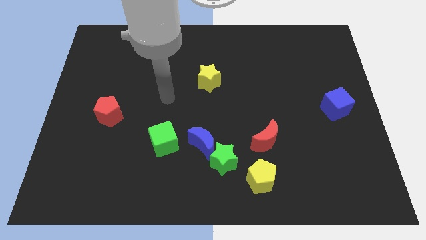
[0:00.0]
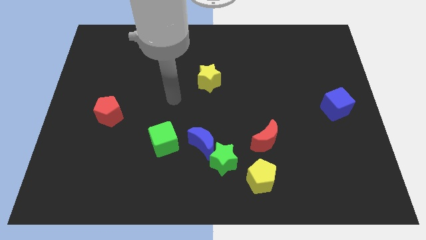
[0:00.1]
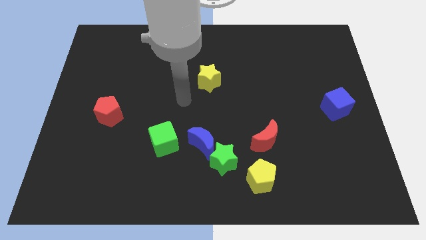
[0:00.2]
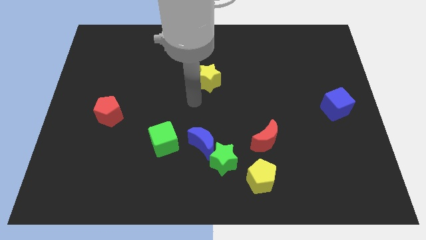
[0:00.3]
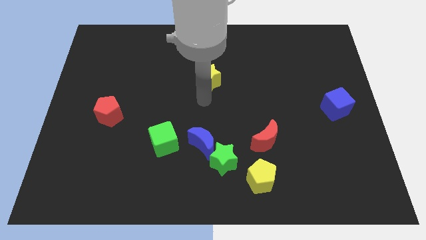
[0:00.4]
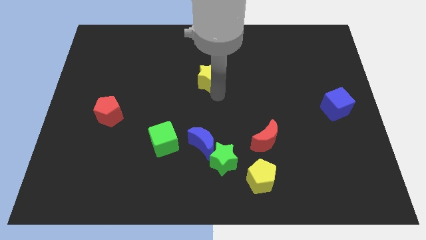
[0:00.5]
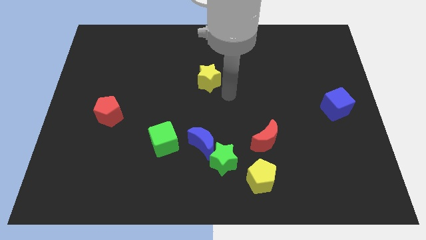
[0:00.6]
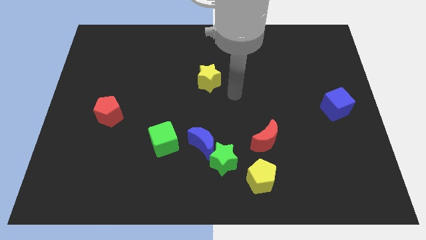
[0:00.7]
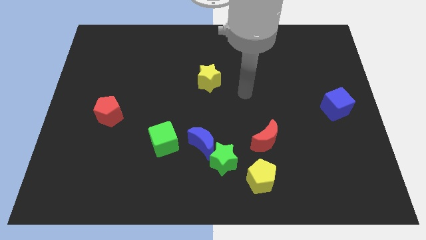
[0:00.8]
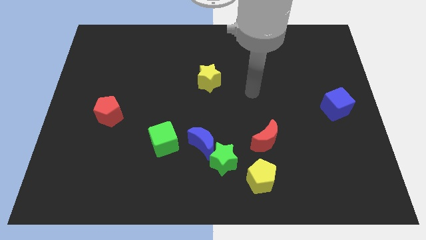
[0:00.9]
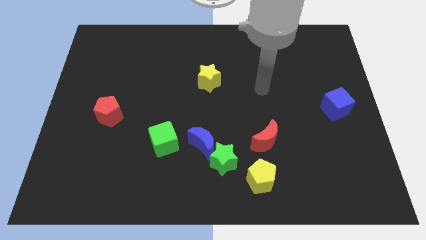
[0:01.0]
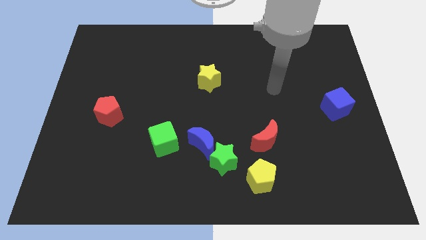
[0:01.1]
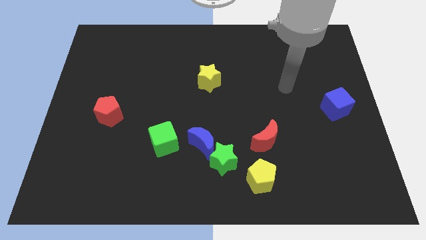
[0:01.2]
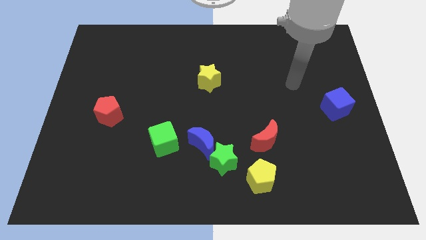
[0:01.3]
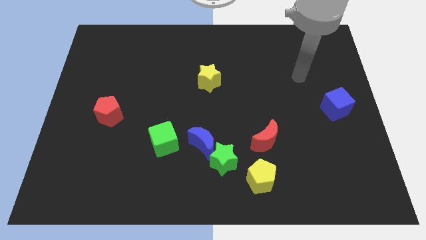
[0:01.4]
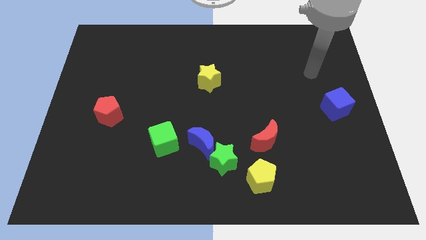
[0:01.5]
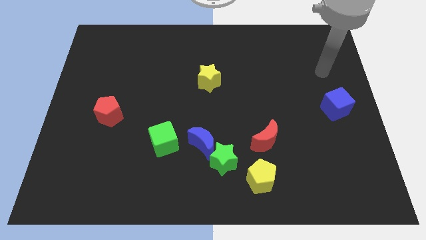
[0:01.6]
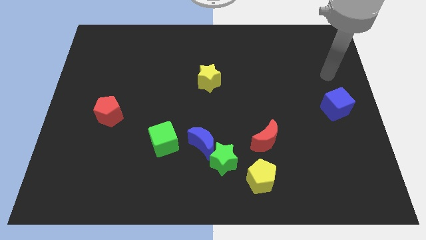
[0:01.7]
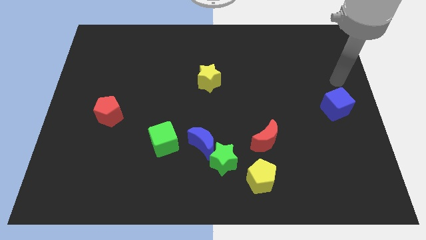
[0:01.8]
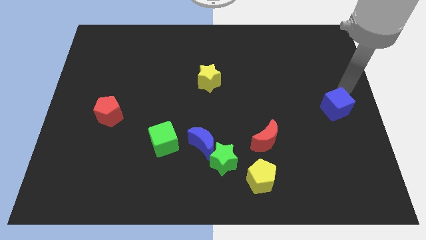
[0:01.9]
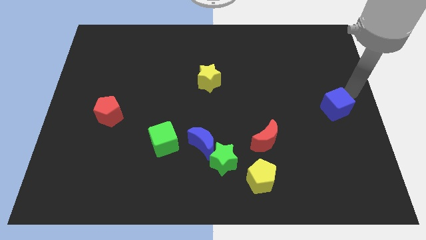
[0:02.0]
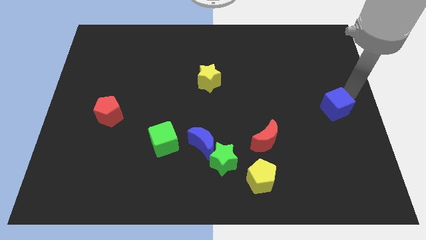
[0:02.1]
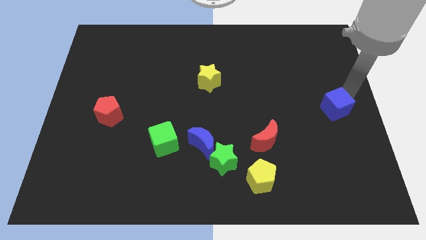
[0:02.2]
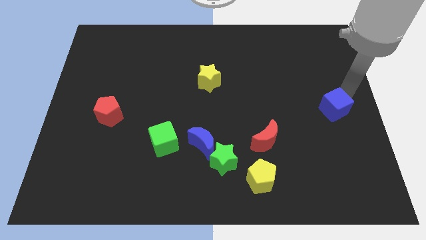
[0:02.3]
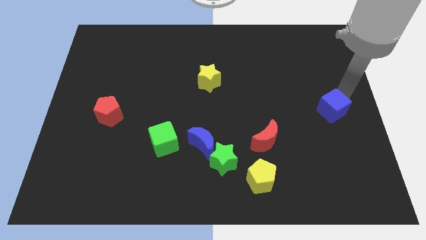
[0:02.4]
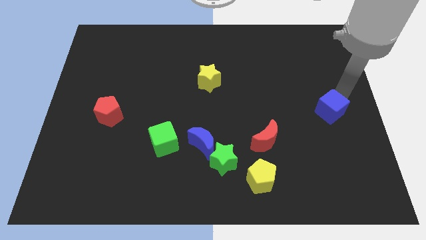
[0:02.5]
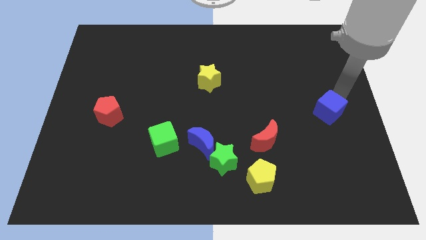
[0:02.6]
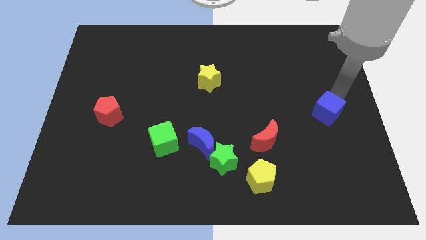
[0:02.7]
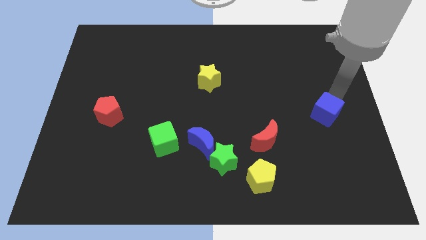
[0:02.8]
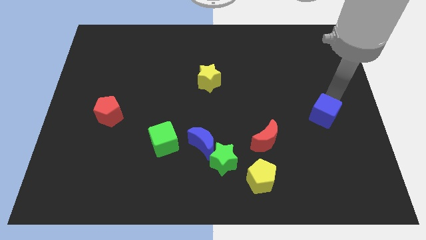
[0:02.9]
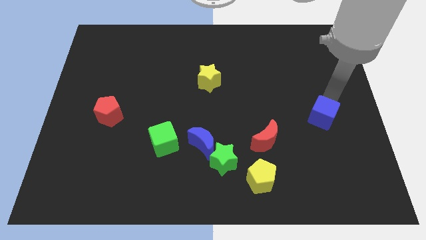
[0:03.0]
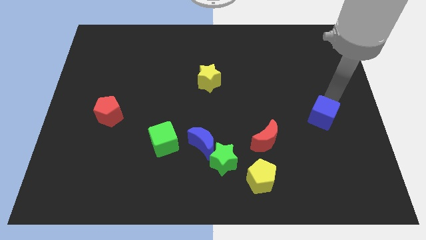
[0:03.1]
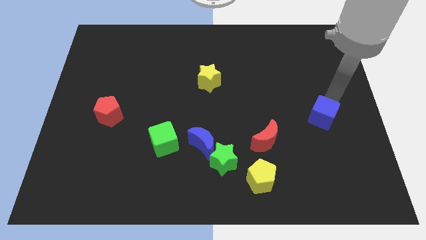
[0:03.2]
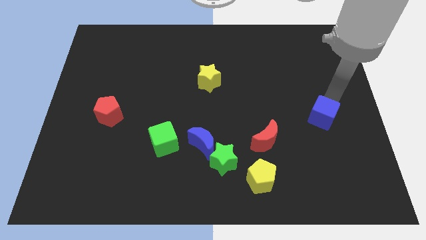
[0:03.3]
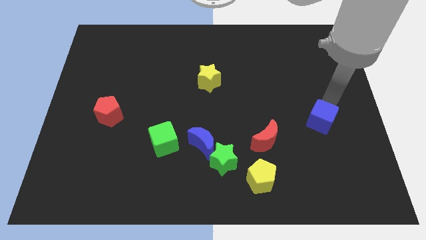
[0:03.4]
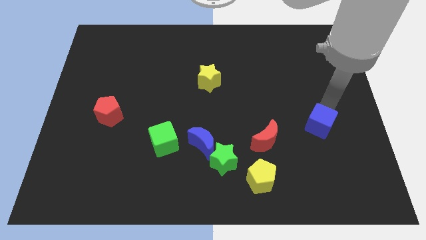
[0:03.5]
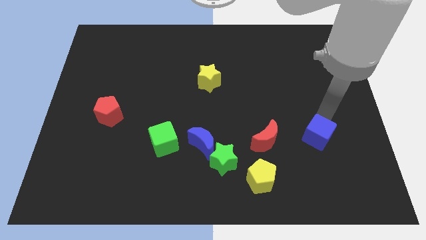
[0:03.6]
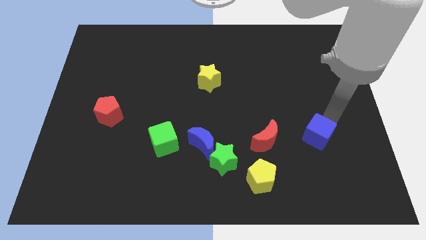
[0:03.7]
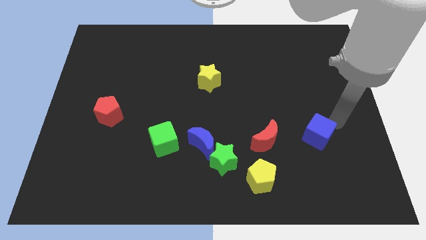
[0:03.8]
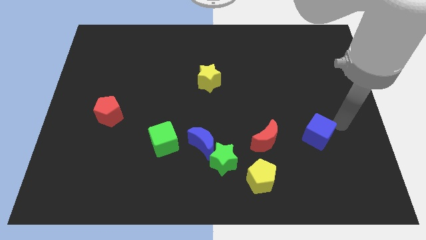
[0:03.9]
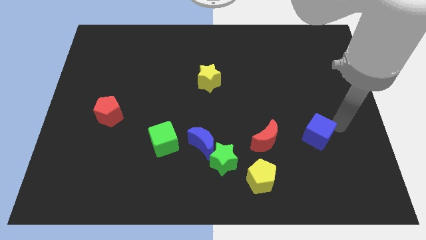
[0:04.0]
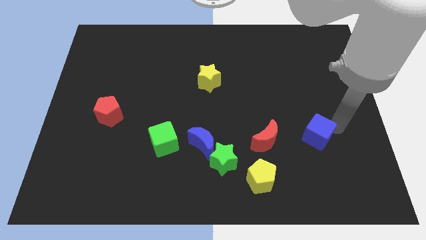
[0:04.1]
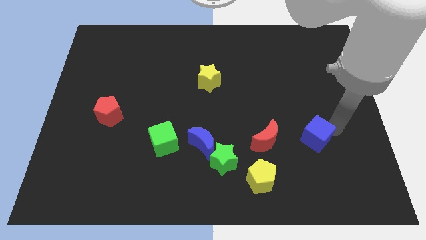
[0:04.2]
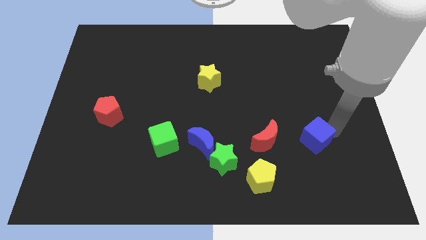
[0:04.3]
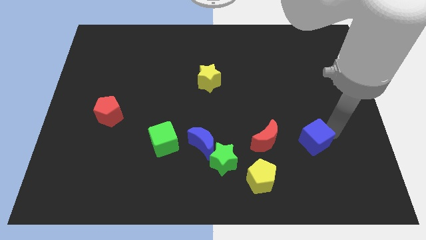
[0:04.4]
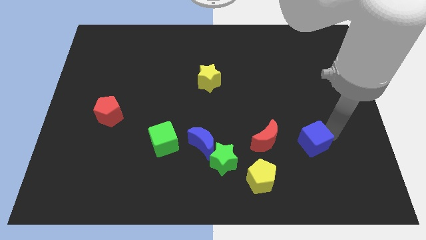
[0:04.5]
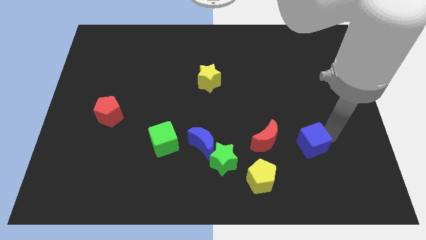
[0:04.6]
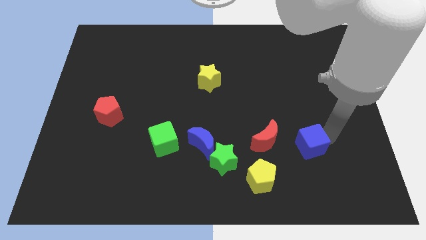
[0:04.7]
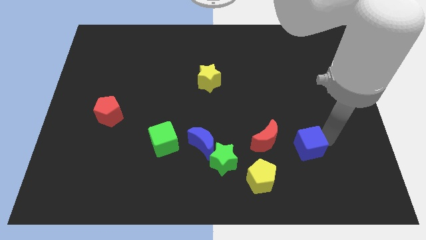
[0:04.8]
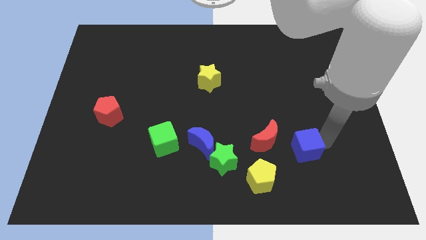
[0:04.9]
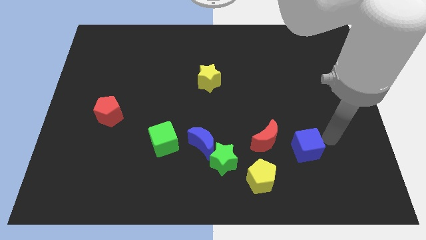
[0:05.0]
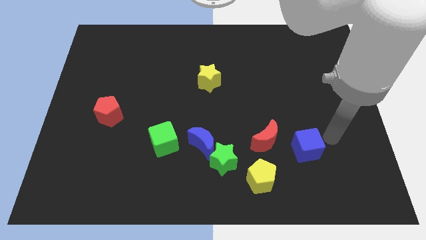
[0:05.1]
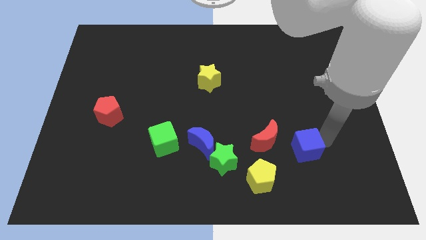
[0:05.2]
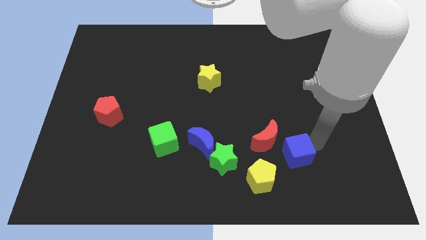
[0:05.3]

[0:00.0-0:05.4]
move the blue cube to the right of the green star

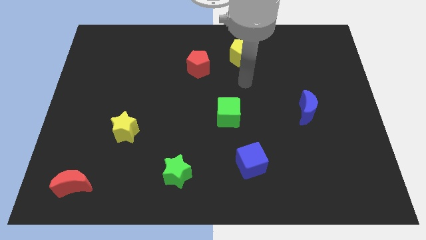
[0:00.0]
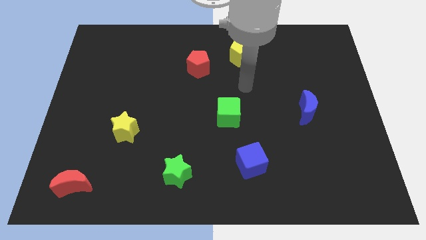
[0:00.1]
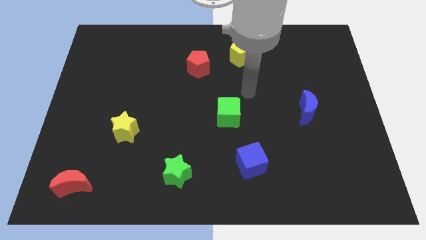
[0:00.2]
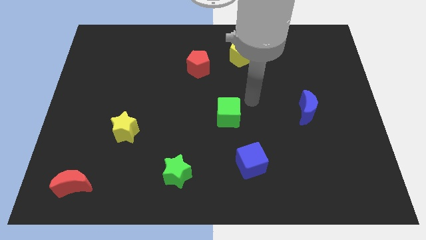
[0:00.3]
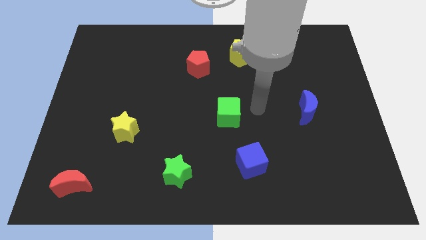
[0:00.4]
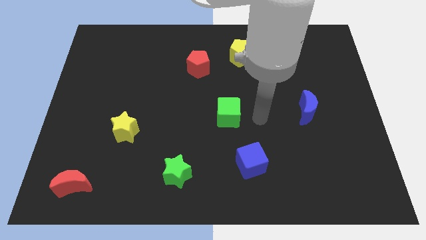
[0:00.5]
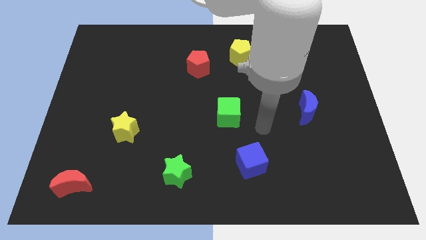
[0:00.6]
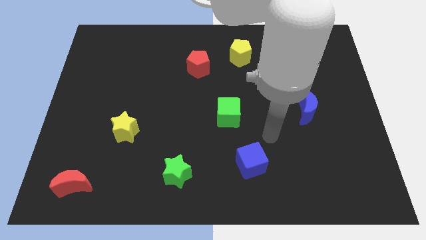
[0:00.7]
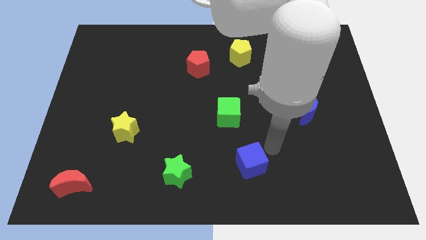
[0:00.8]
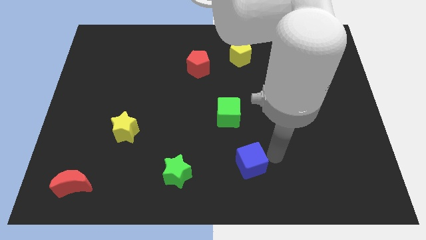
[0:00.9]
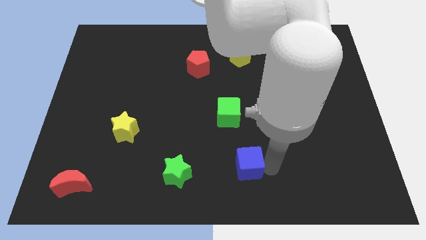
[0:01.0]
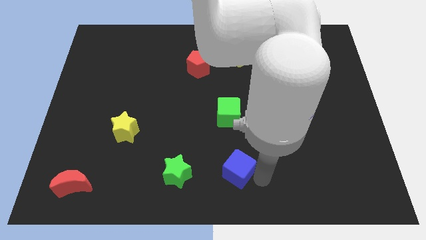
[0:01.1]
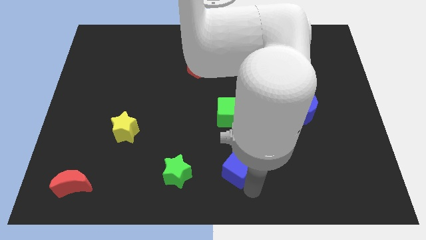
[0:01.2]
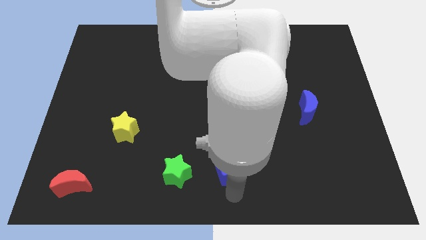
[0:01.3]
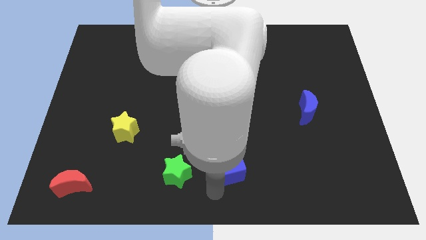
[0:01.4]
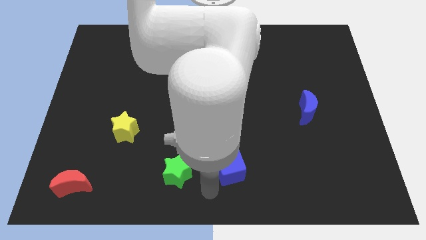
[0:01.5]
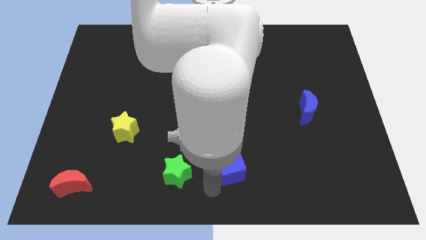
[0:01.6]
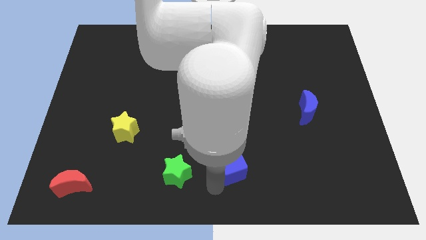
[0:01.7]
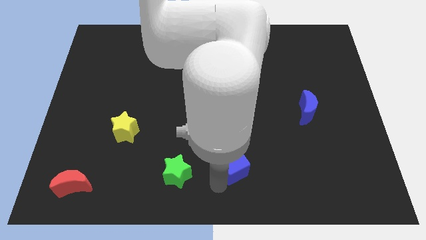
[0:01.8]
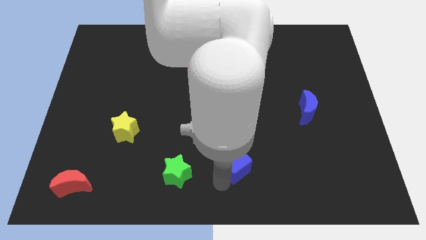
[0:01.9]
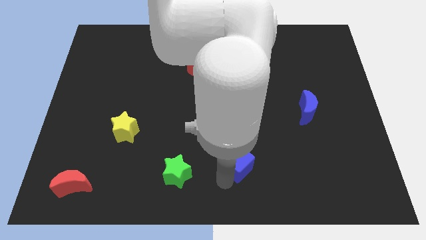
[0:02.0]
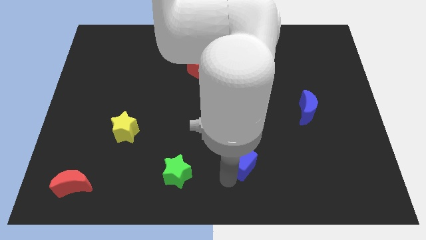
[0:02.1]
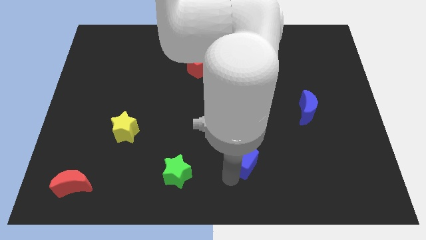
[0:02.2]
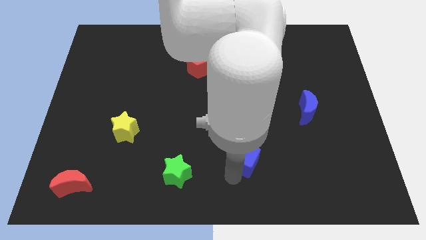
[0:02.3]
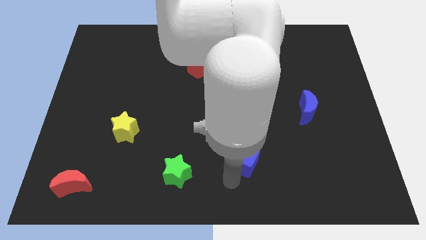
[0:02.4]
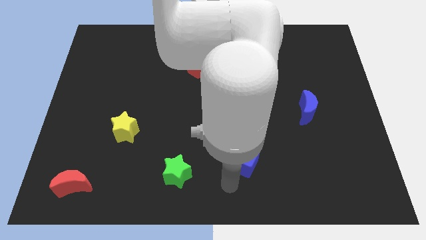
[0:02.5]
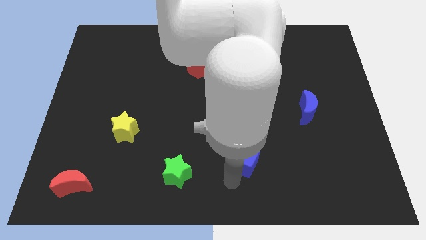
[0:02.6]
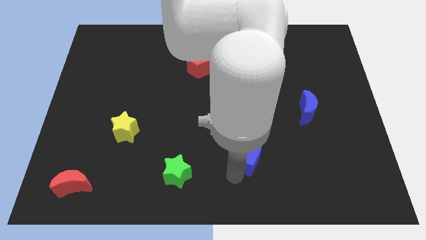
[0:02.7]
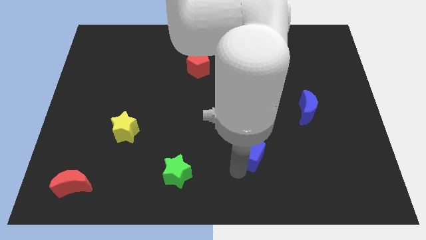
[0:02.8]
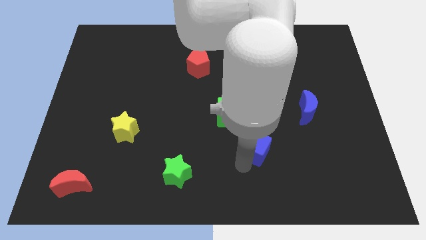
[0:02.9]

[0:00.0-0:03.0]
push the blue cube to the bottom right of the green cube
